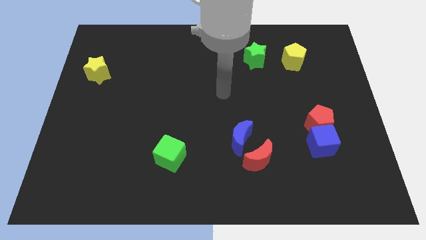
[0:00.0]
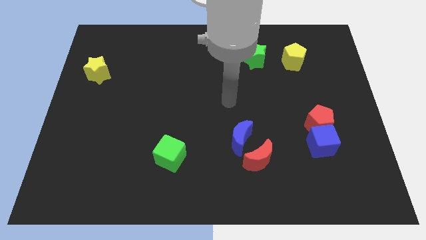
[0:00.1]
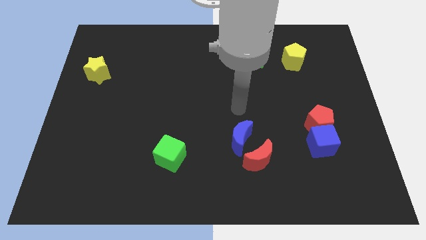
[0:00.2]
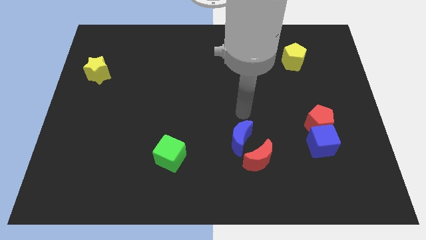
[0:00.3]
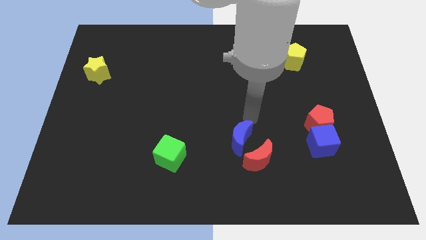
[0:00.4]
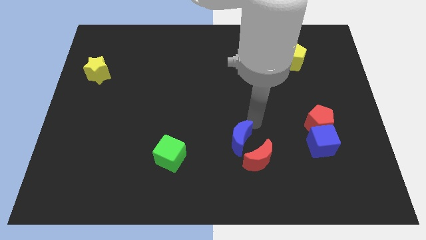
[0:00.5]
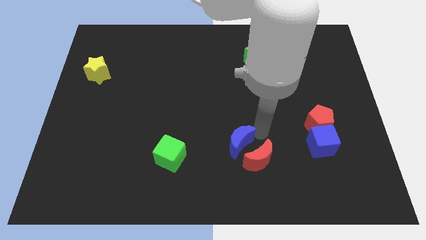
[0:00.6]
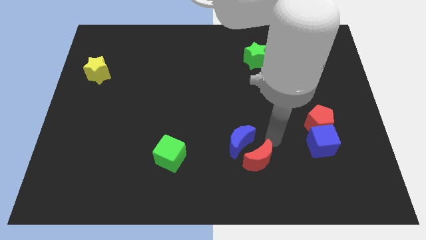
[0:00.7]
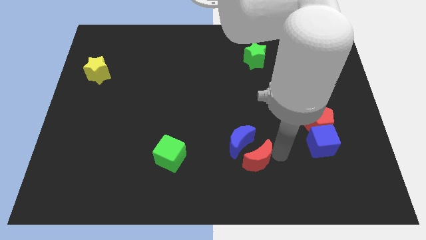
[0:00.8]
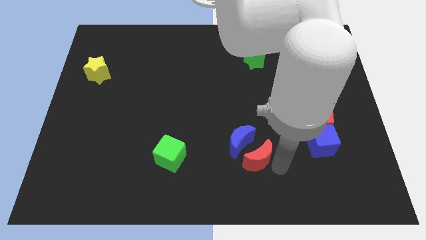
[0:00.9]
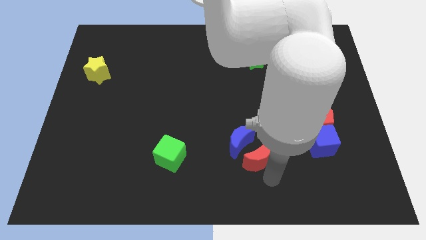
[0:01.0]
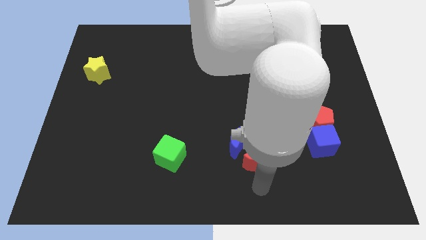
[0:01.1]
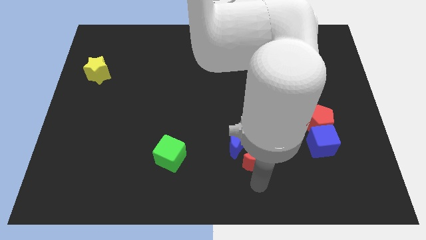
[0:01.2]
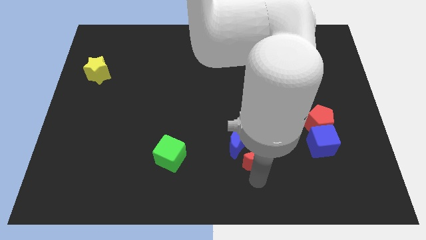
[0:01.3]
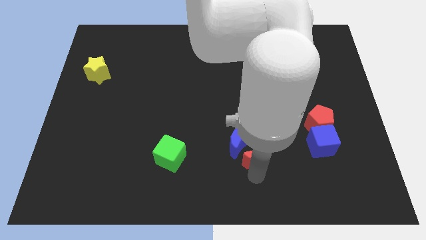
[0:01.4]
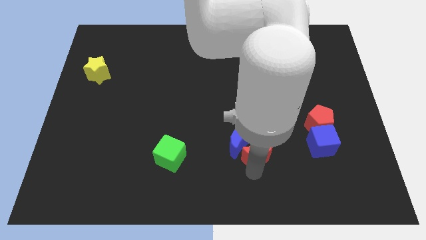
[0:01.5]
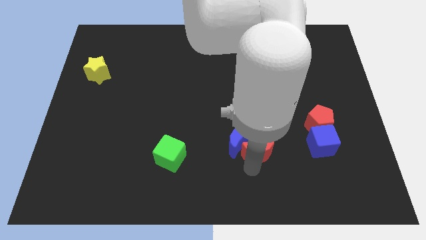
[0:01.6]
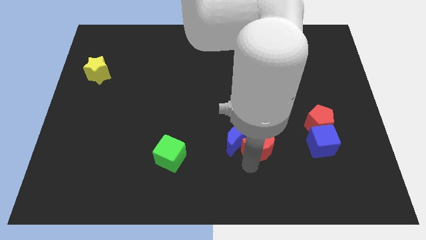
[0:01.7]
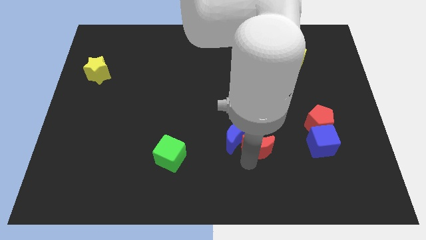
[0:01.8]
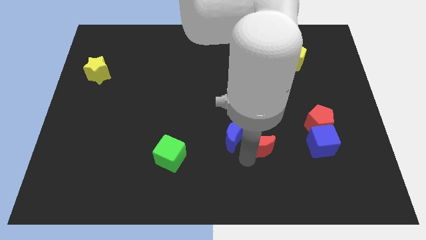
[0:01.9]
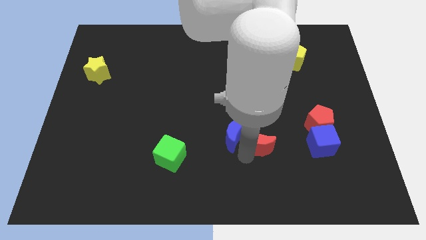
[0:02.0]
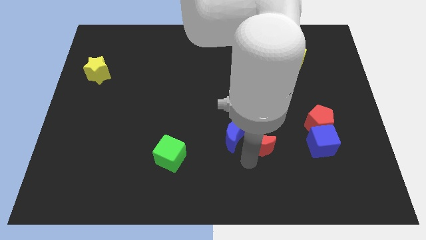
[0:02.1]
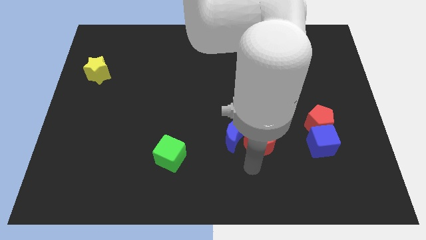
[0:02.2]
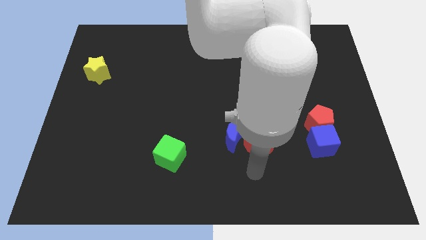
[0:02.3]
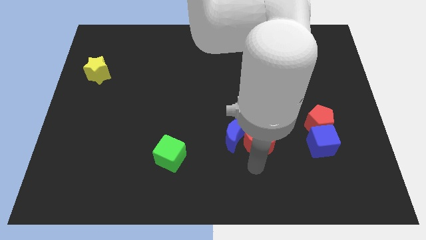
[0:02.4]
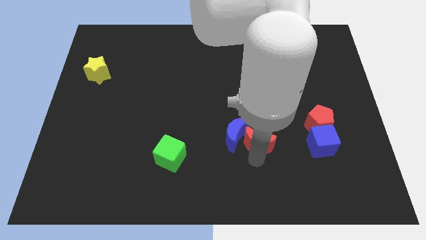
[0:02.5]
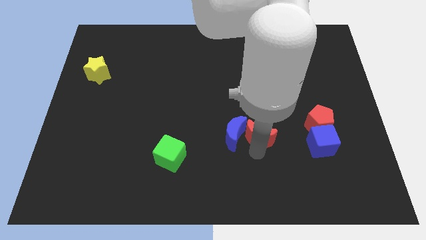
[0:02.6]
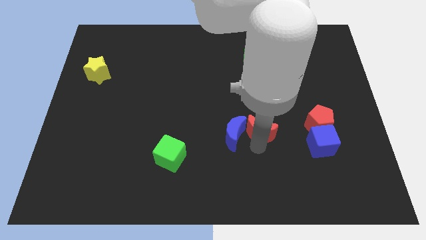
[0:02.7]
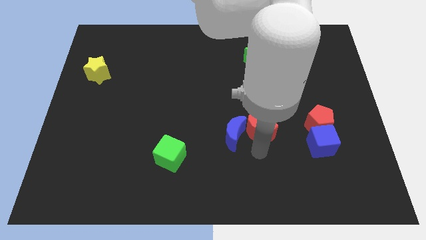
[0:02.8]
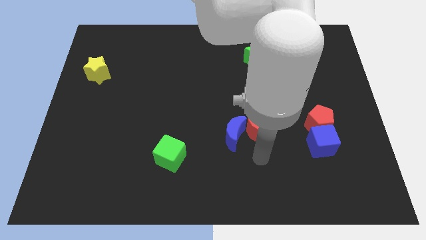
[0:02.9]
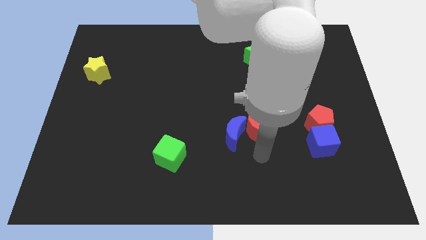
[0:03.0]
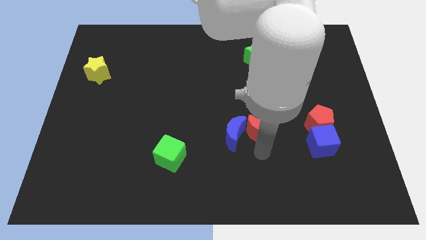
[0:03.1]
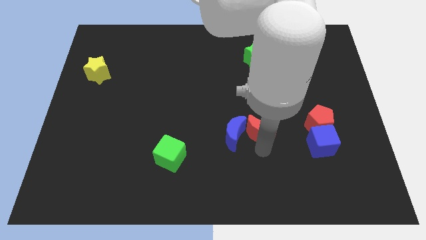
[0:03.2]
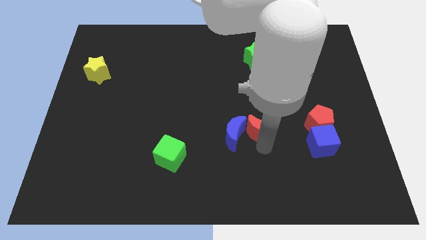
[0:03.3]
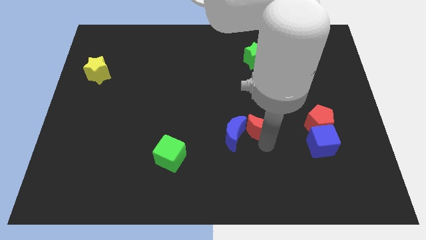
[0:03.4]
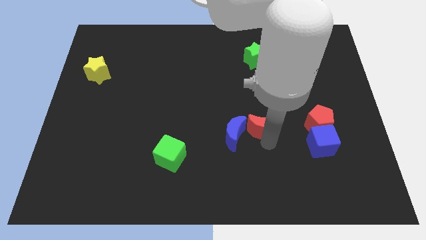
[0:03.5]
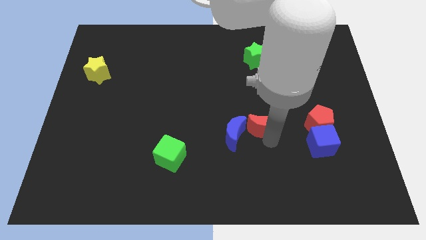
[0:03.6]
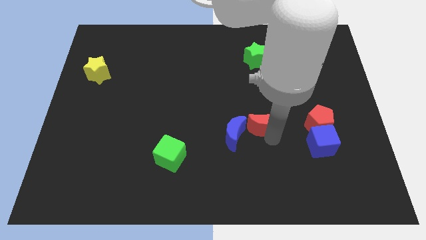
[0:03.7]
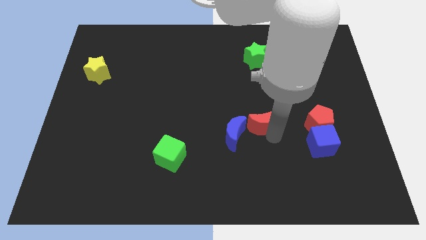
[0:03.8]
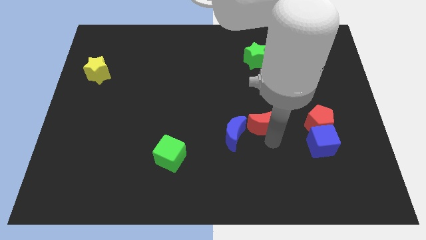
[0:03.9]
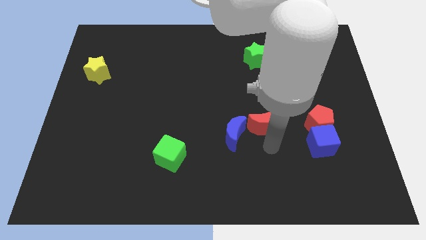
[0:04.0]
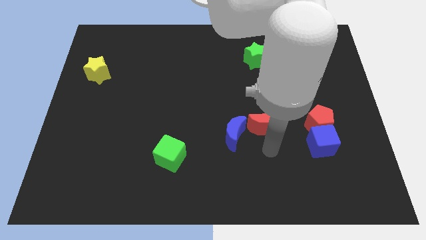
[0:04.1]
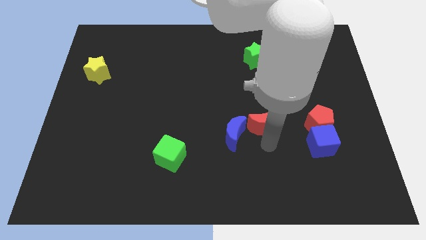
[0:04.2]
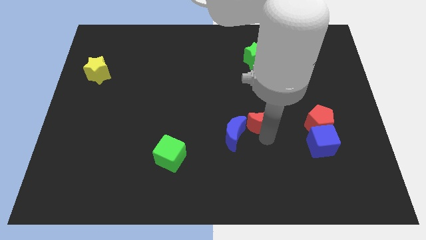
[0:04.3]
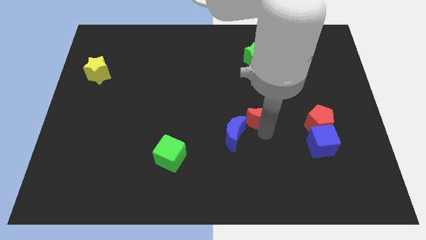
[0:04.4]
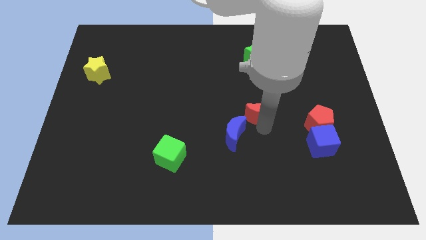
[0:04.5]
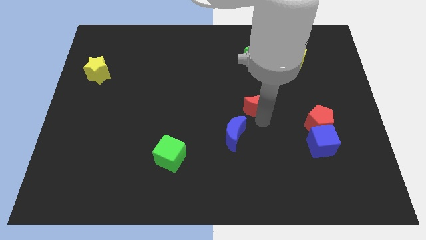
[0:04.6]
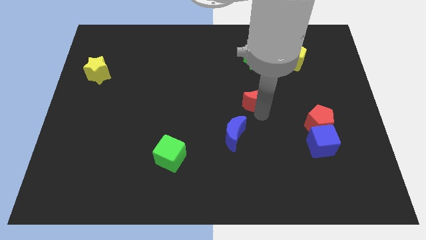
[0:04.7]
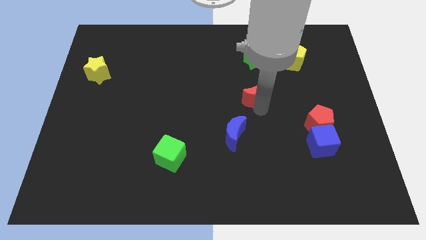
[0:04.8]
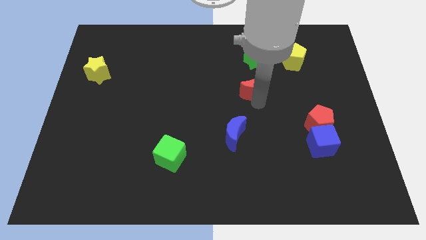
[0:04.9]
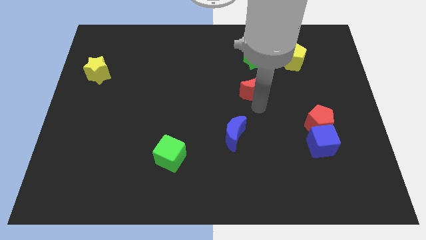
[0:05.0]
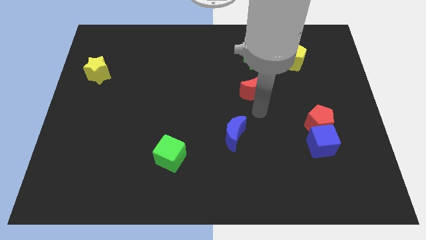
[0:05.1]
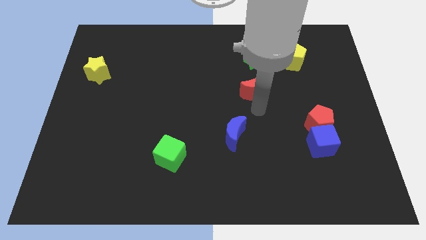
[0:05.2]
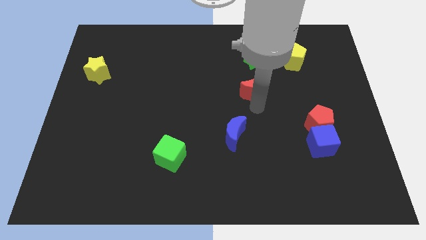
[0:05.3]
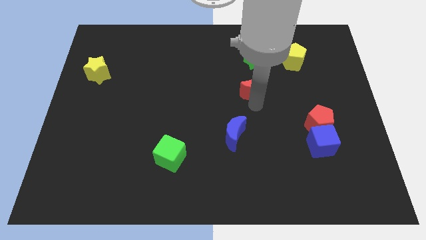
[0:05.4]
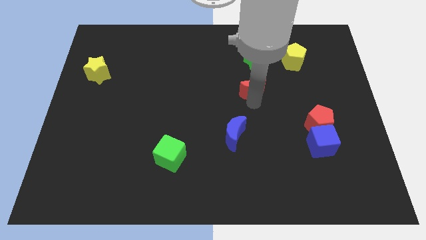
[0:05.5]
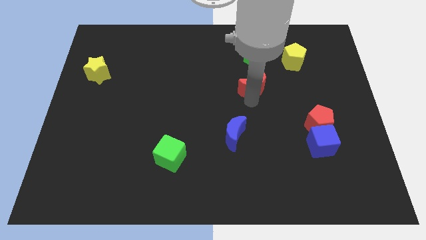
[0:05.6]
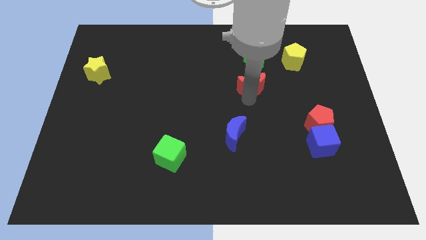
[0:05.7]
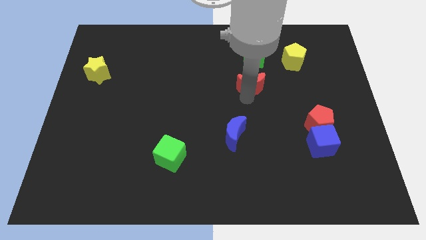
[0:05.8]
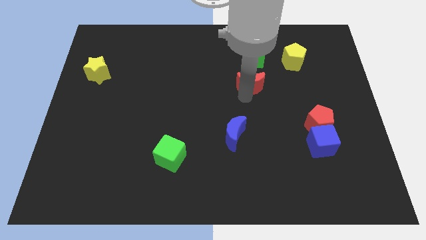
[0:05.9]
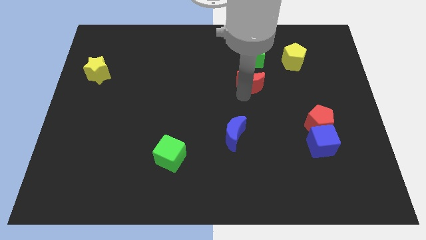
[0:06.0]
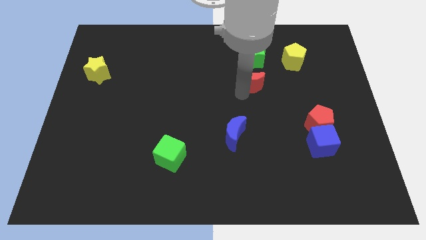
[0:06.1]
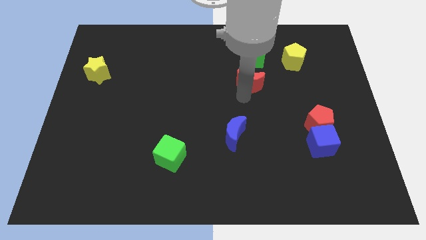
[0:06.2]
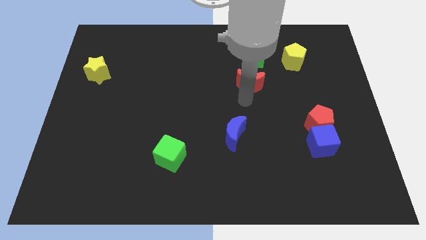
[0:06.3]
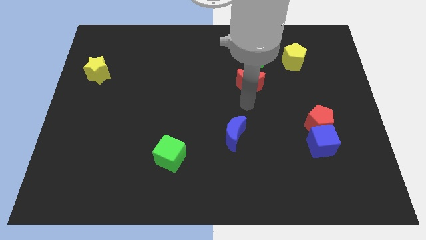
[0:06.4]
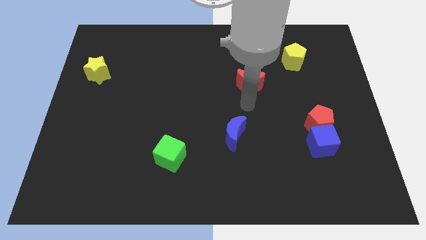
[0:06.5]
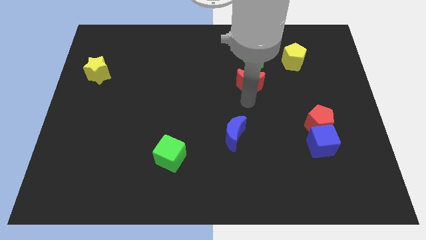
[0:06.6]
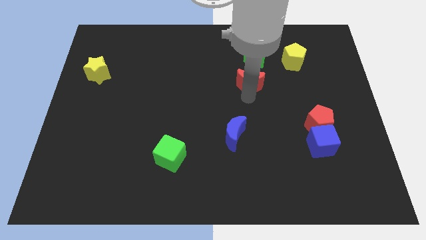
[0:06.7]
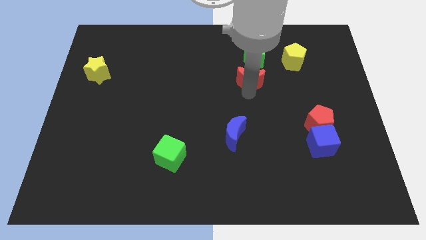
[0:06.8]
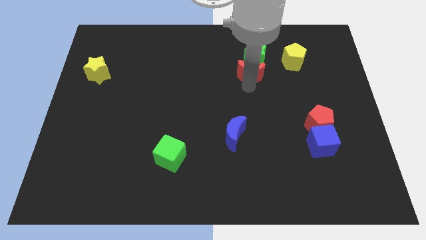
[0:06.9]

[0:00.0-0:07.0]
slide the red moon close to the green star

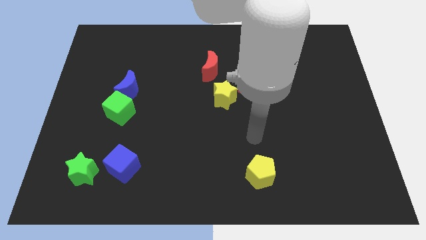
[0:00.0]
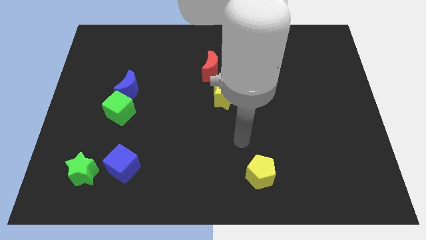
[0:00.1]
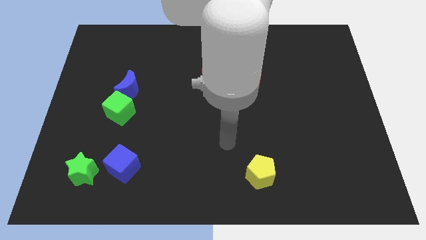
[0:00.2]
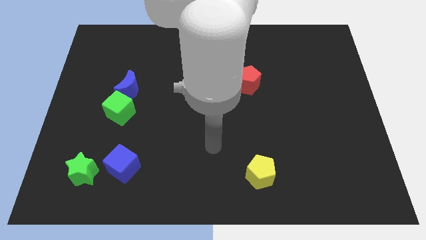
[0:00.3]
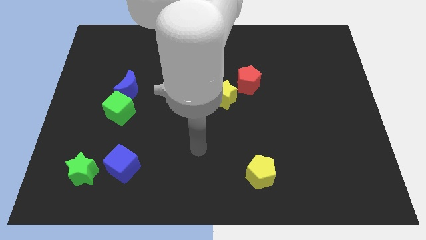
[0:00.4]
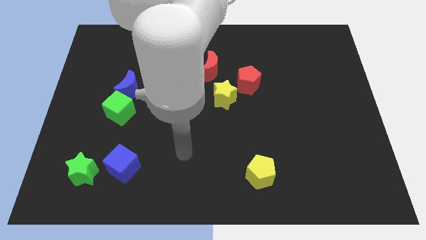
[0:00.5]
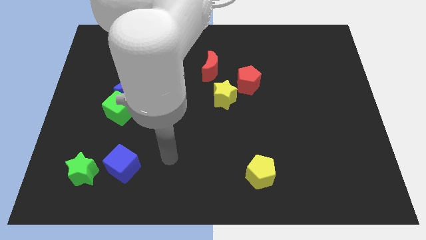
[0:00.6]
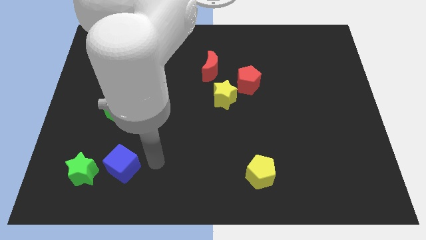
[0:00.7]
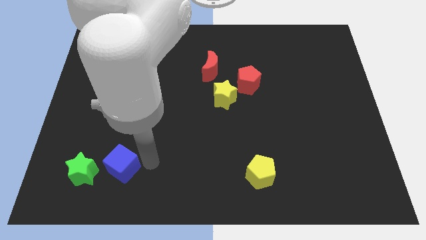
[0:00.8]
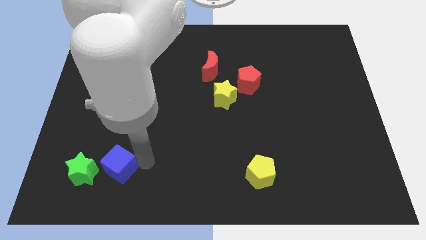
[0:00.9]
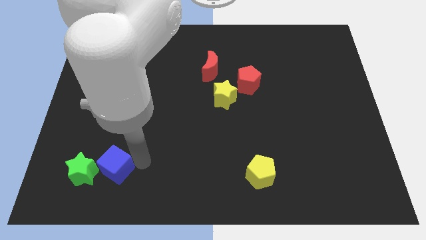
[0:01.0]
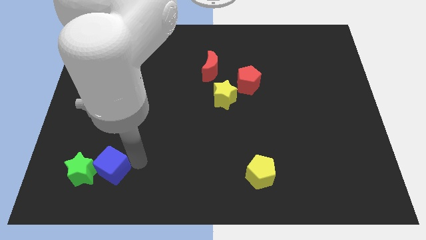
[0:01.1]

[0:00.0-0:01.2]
move the blue cube next to the green star
